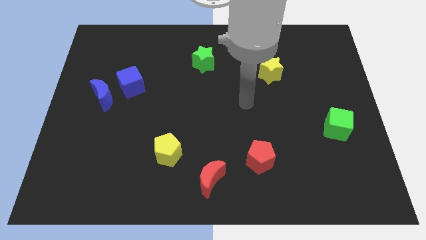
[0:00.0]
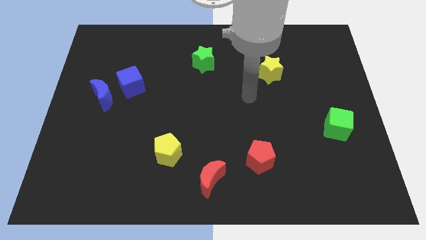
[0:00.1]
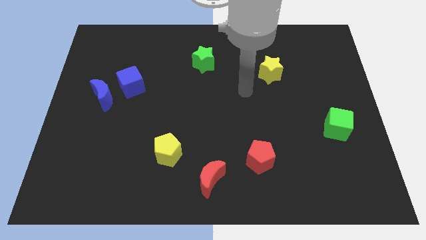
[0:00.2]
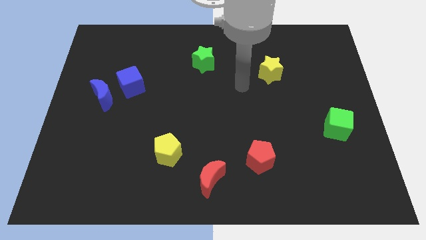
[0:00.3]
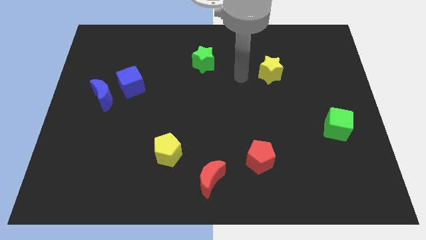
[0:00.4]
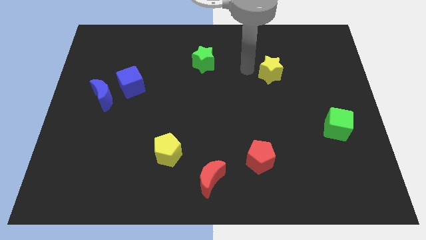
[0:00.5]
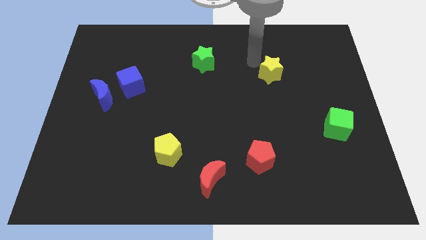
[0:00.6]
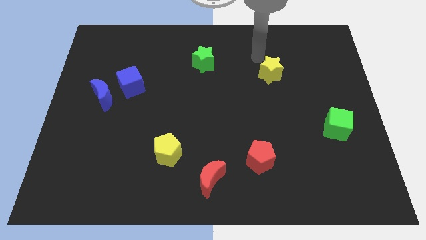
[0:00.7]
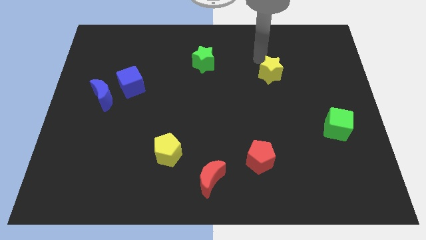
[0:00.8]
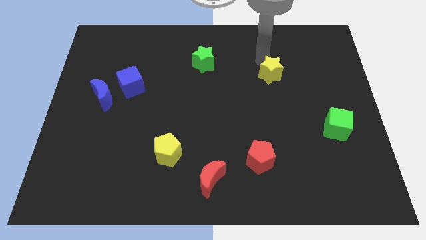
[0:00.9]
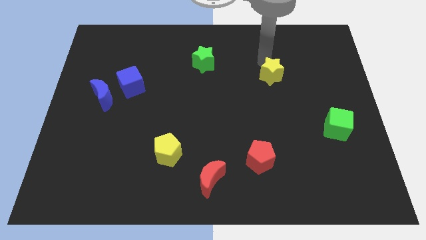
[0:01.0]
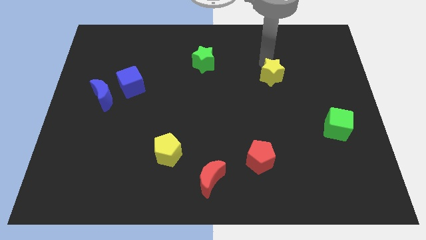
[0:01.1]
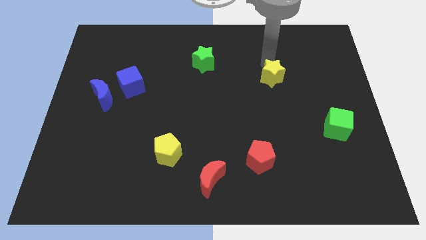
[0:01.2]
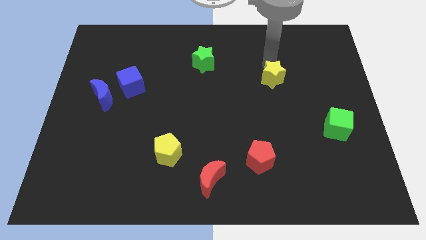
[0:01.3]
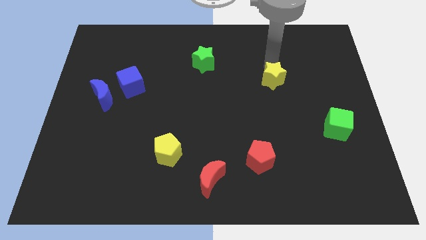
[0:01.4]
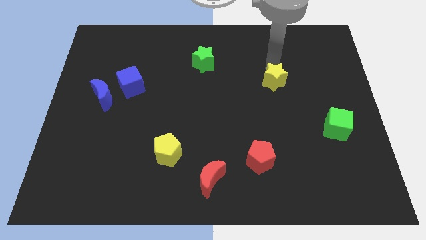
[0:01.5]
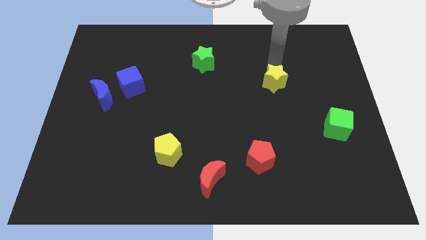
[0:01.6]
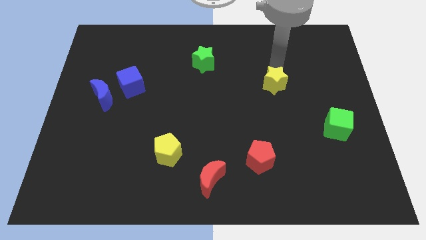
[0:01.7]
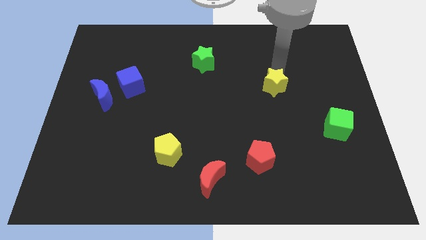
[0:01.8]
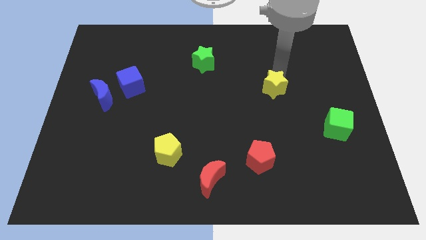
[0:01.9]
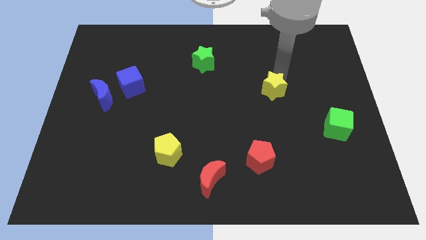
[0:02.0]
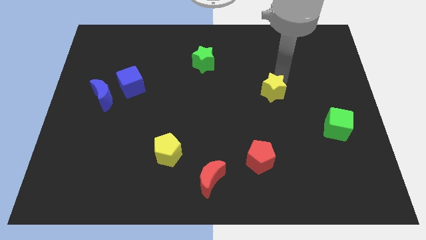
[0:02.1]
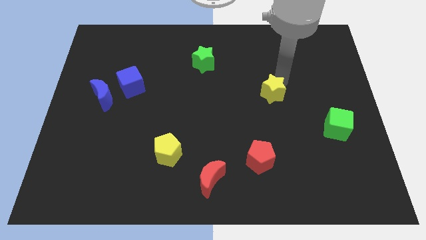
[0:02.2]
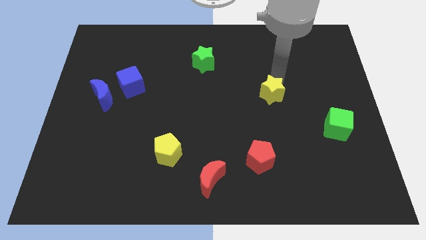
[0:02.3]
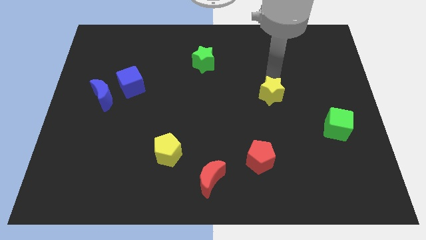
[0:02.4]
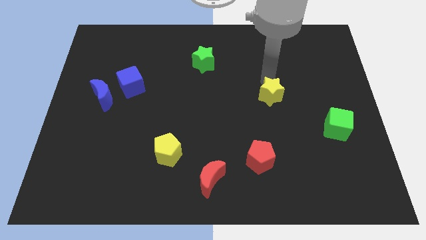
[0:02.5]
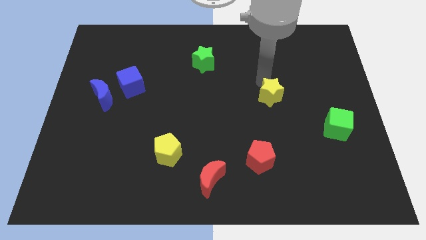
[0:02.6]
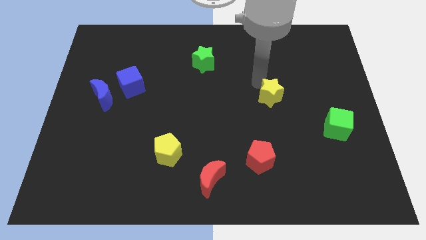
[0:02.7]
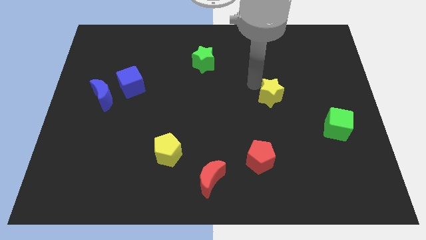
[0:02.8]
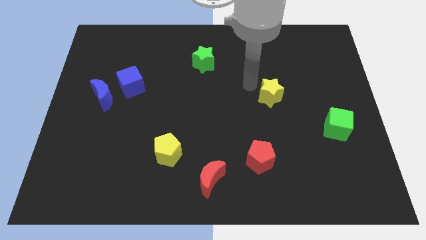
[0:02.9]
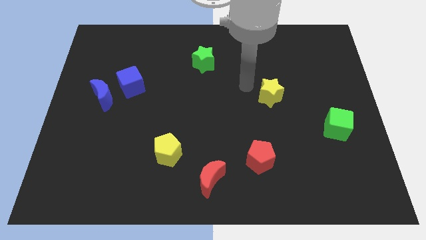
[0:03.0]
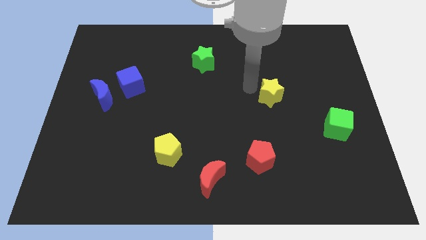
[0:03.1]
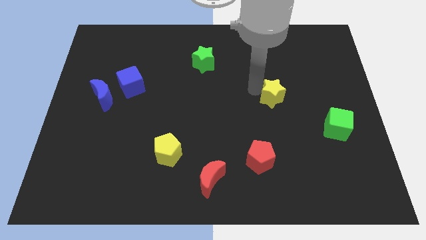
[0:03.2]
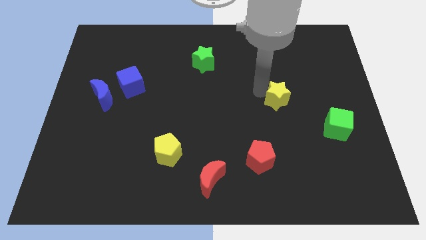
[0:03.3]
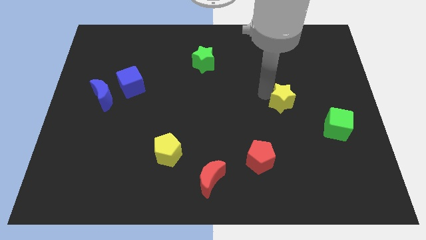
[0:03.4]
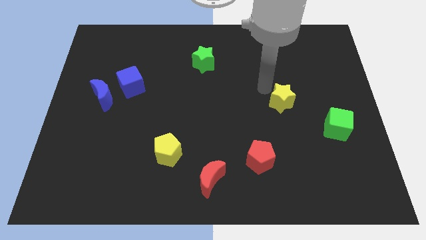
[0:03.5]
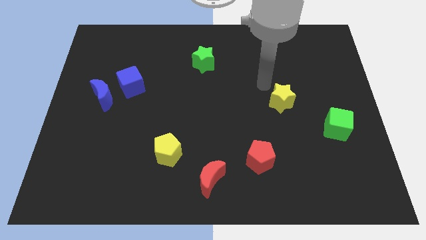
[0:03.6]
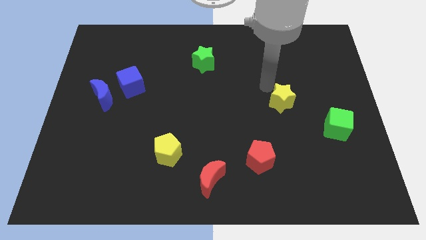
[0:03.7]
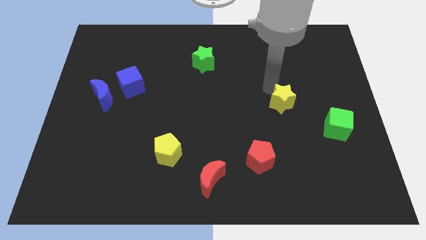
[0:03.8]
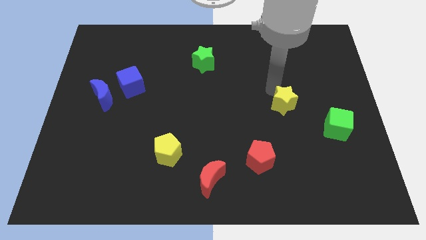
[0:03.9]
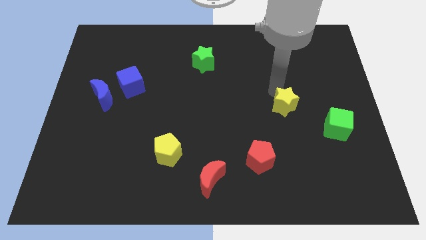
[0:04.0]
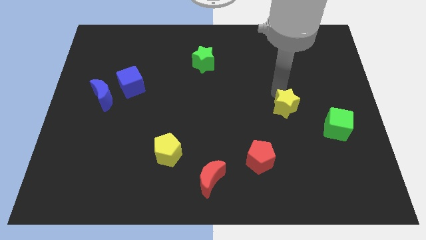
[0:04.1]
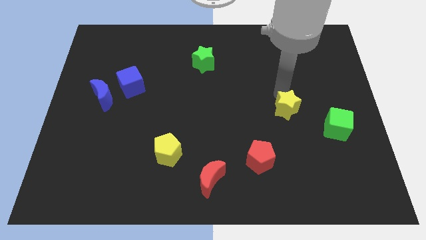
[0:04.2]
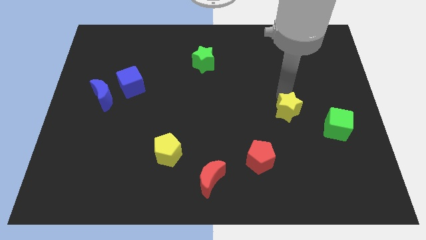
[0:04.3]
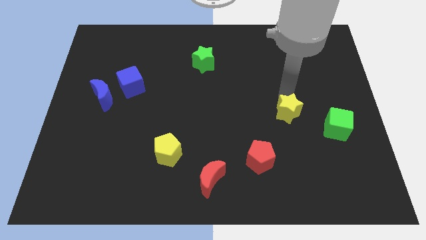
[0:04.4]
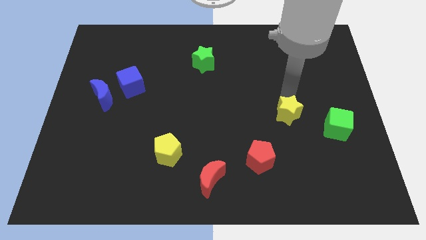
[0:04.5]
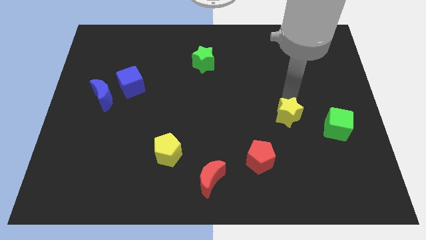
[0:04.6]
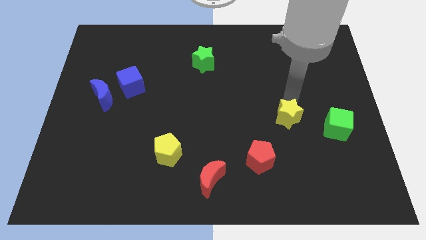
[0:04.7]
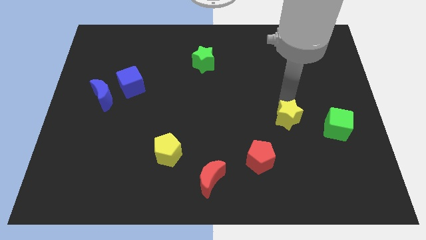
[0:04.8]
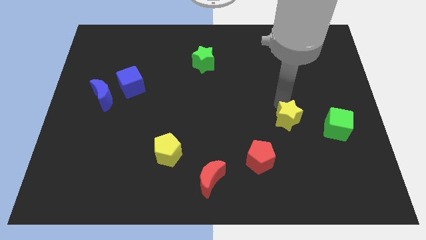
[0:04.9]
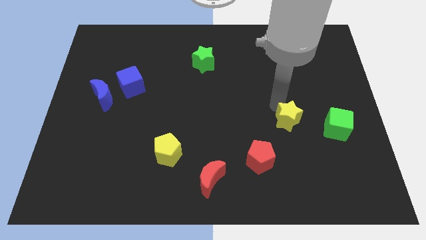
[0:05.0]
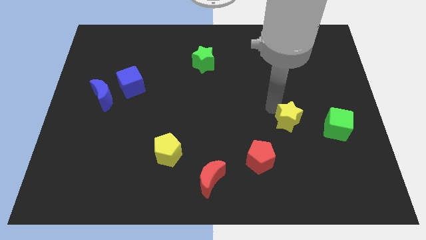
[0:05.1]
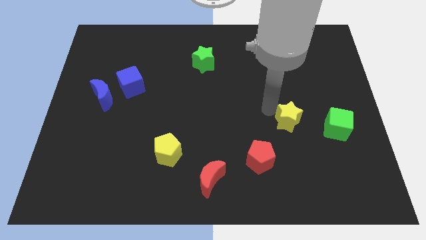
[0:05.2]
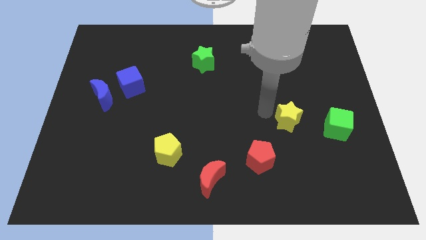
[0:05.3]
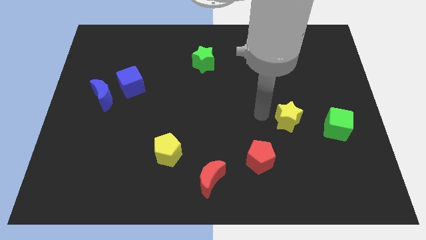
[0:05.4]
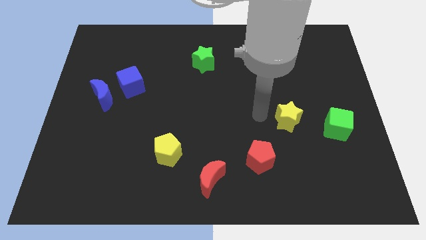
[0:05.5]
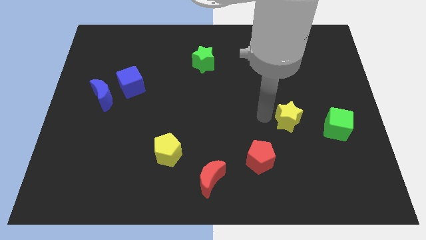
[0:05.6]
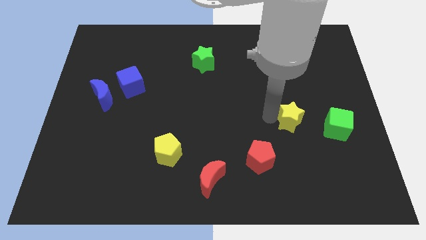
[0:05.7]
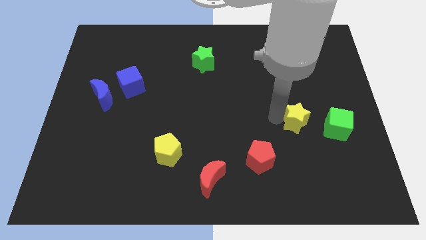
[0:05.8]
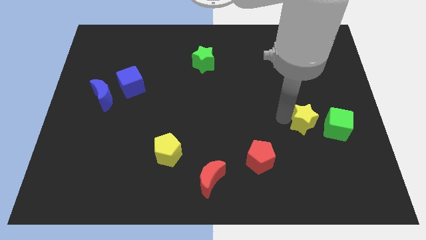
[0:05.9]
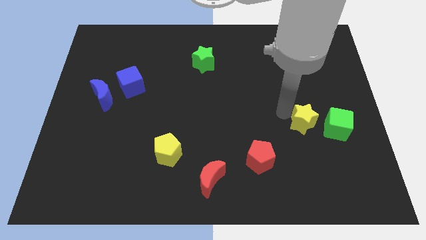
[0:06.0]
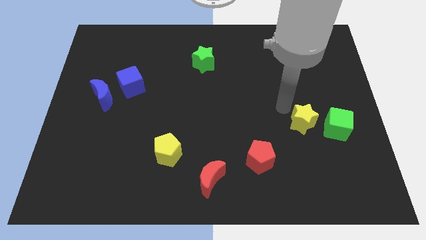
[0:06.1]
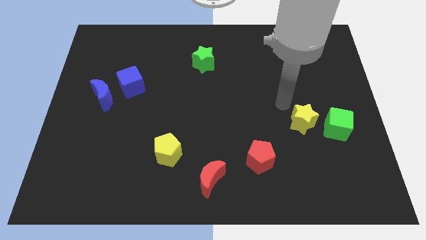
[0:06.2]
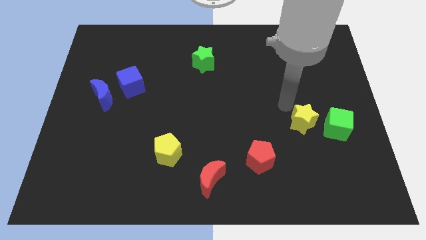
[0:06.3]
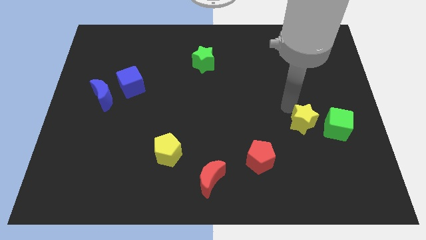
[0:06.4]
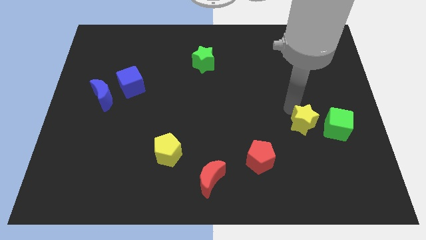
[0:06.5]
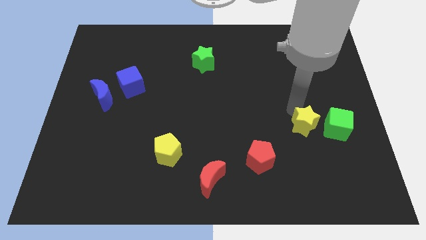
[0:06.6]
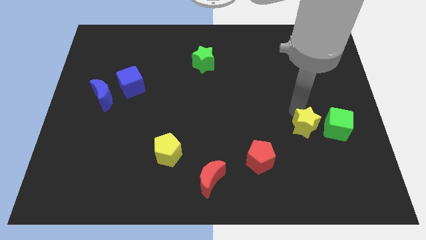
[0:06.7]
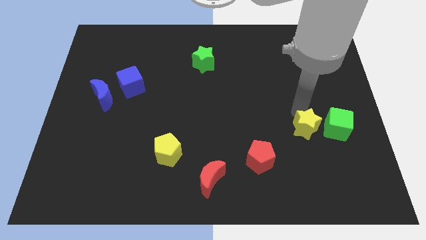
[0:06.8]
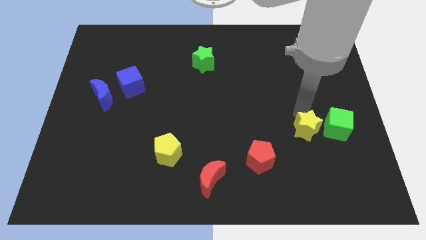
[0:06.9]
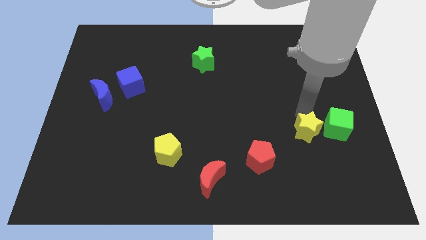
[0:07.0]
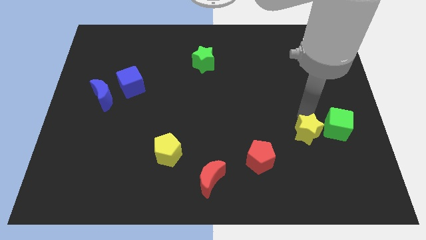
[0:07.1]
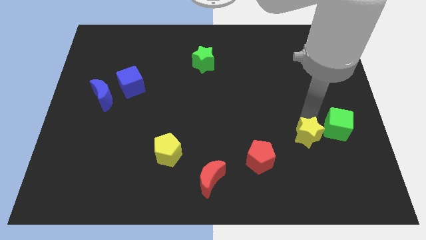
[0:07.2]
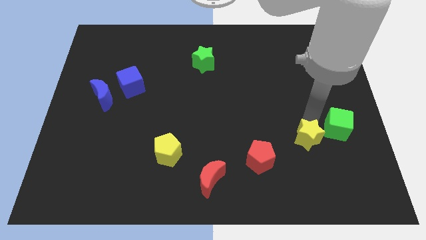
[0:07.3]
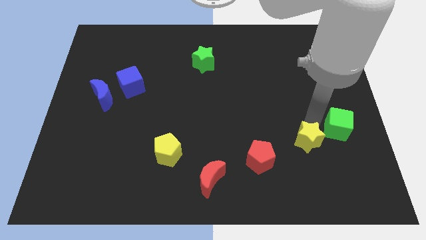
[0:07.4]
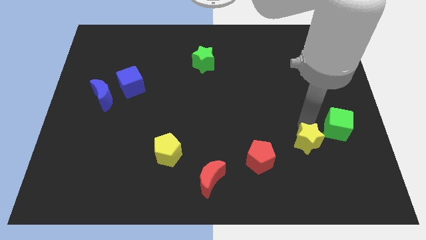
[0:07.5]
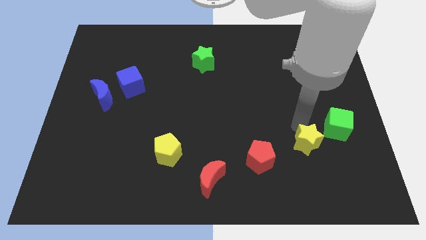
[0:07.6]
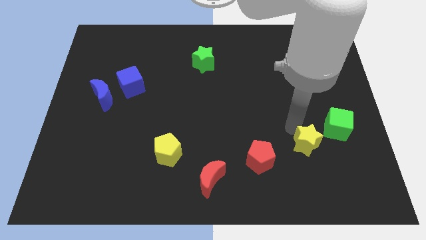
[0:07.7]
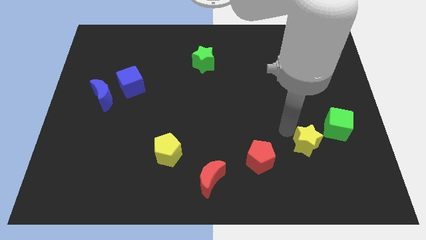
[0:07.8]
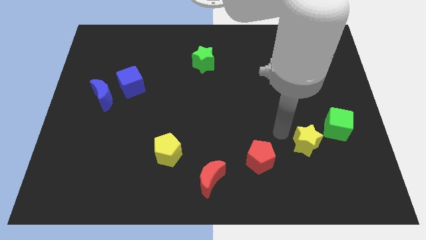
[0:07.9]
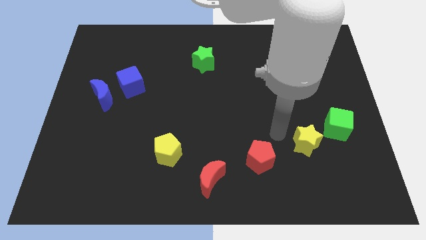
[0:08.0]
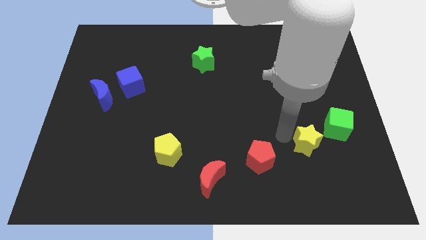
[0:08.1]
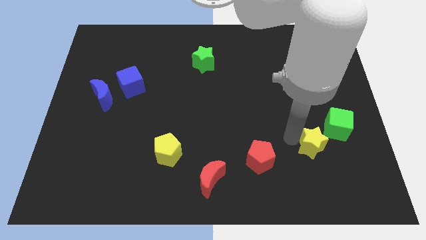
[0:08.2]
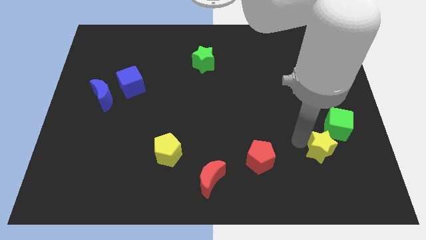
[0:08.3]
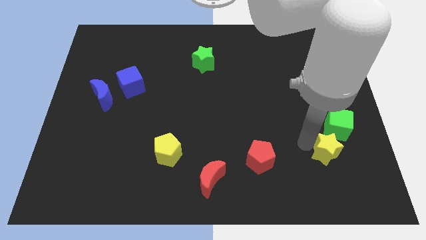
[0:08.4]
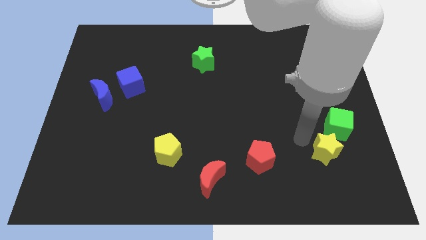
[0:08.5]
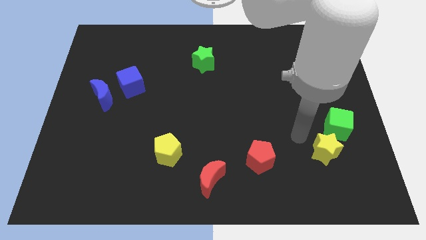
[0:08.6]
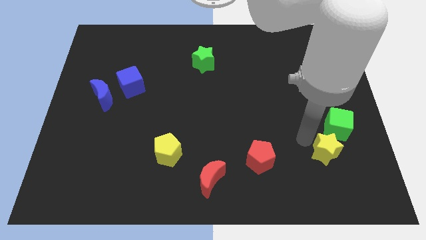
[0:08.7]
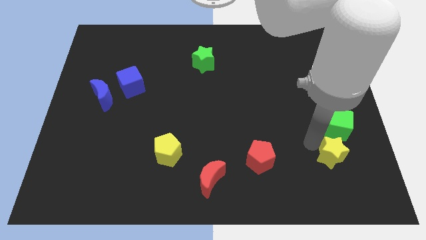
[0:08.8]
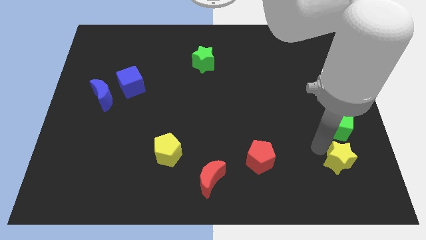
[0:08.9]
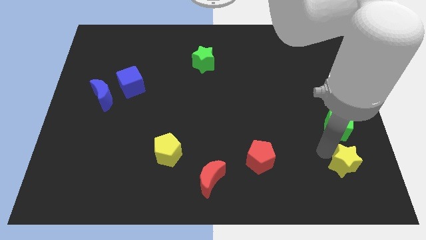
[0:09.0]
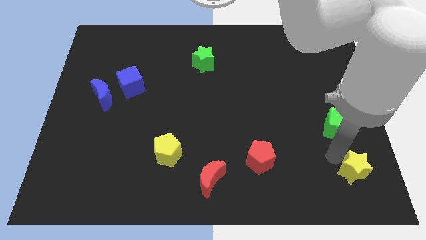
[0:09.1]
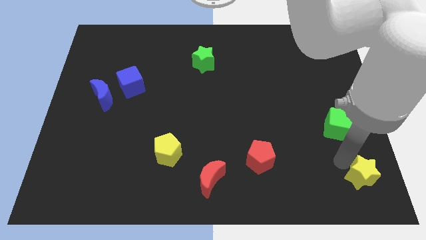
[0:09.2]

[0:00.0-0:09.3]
move the yellow star to the bottom right of the board
